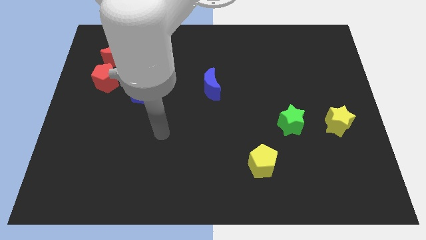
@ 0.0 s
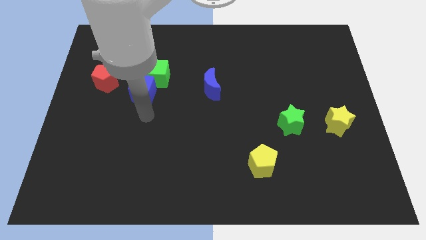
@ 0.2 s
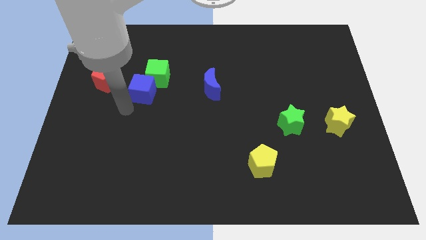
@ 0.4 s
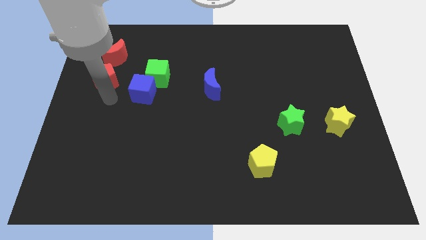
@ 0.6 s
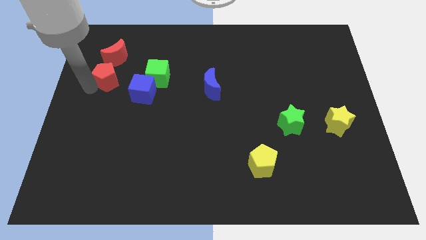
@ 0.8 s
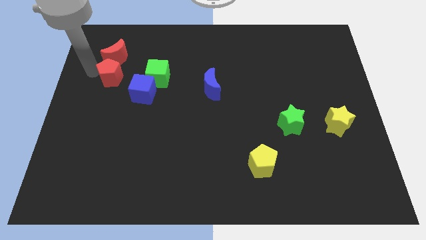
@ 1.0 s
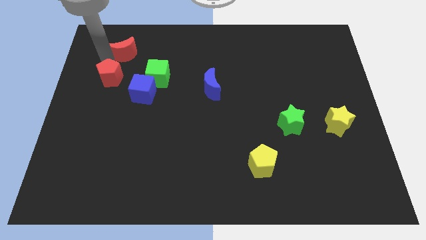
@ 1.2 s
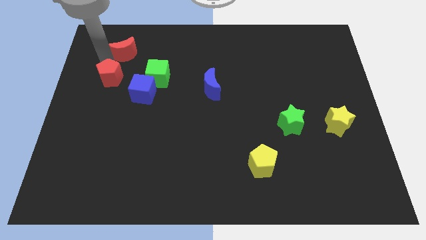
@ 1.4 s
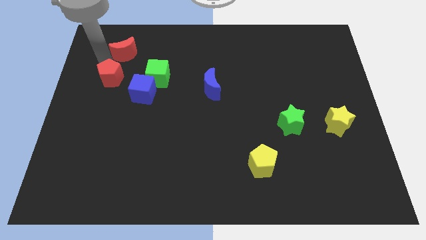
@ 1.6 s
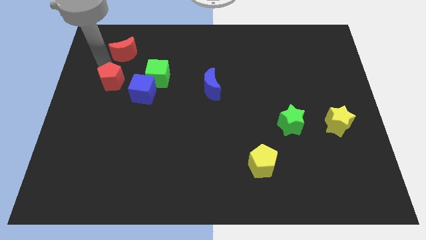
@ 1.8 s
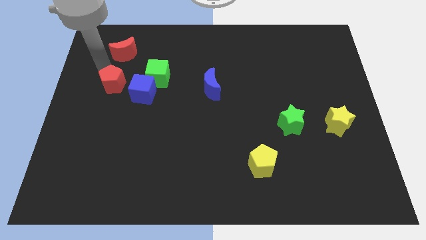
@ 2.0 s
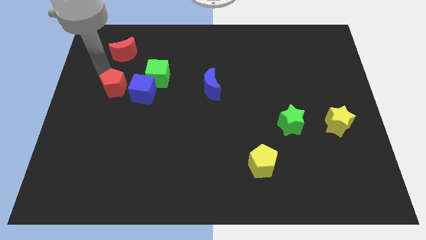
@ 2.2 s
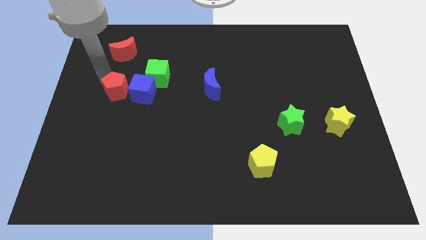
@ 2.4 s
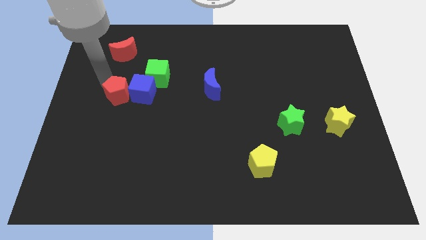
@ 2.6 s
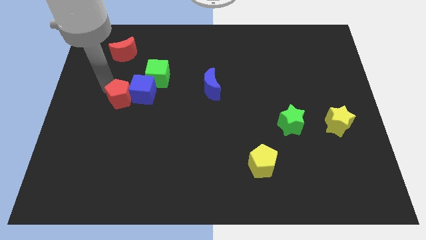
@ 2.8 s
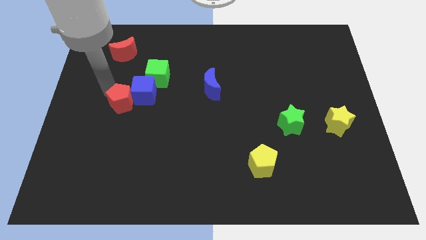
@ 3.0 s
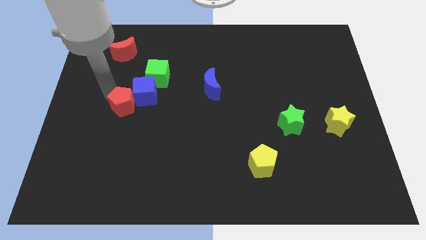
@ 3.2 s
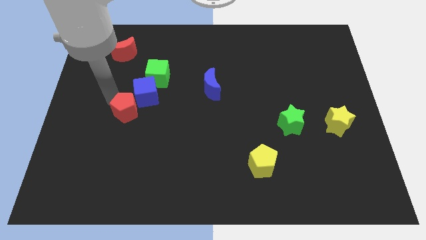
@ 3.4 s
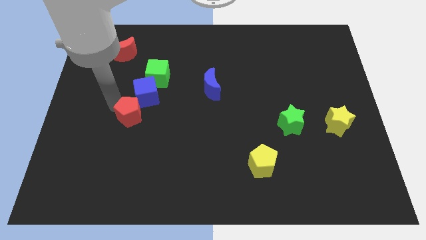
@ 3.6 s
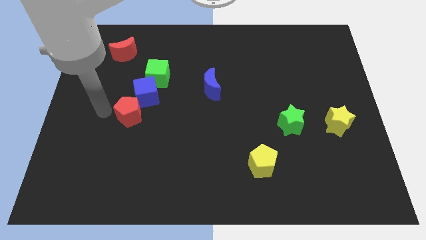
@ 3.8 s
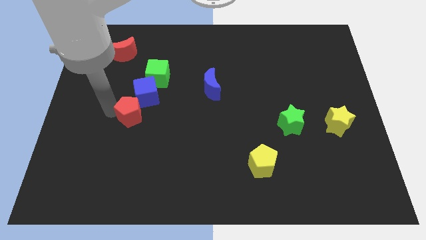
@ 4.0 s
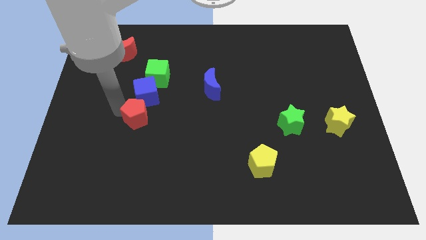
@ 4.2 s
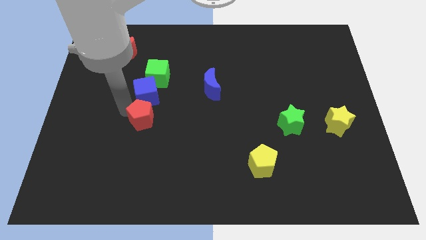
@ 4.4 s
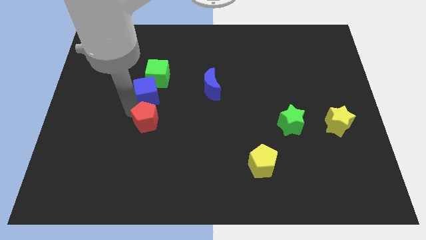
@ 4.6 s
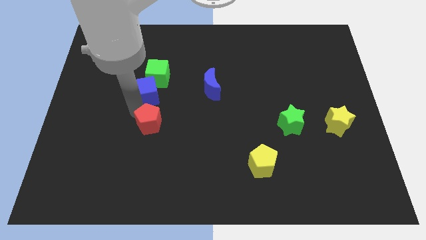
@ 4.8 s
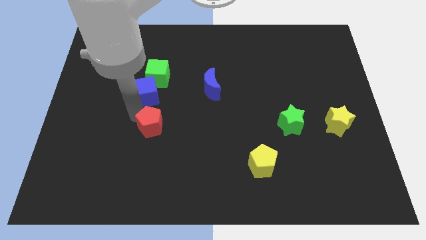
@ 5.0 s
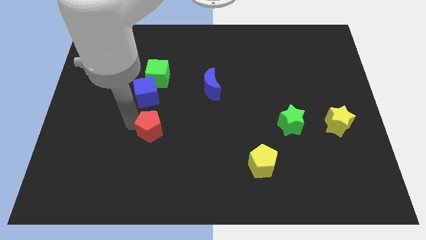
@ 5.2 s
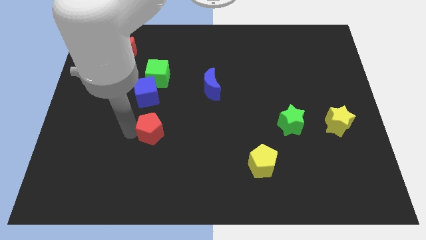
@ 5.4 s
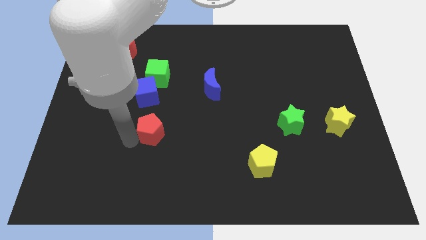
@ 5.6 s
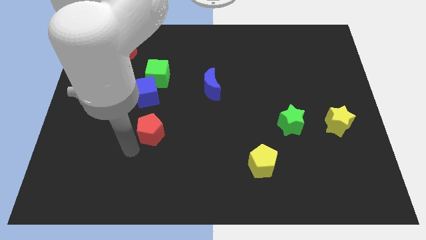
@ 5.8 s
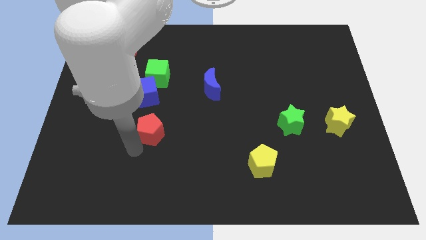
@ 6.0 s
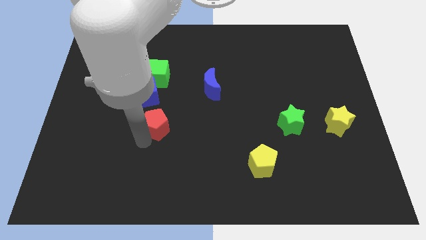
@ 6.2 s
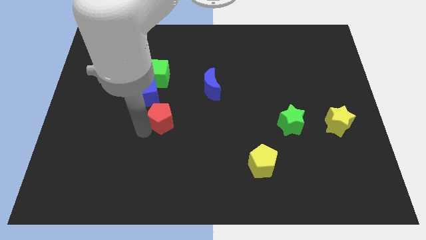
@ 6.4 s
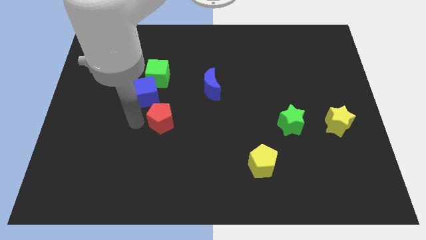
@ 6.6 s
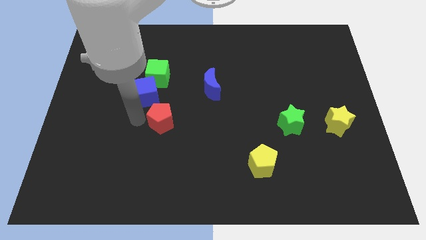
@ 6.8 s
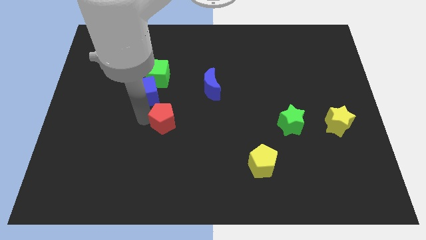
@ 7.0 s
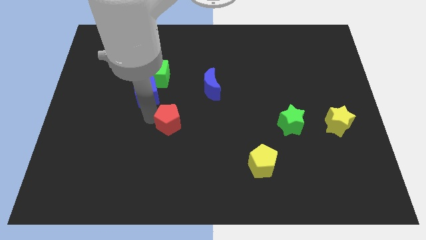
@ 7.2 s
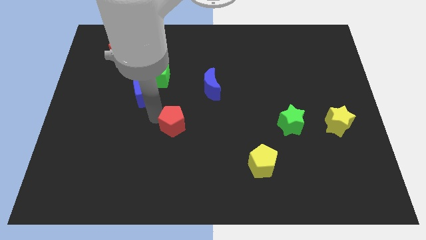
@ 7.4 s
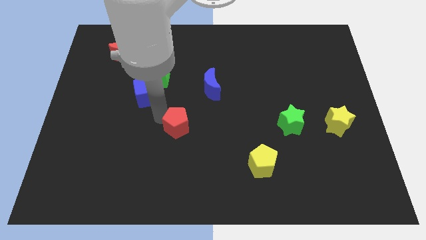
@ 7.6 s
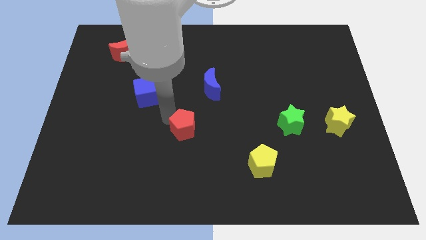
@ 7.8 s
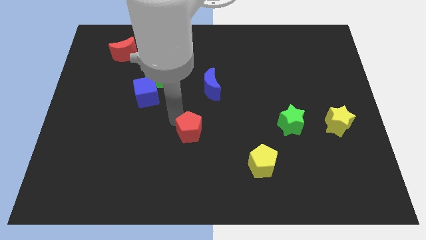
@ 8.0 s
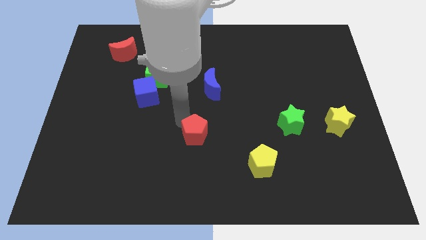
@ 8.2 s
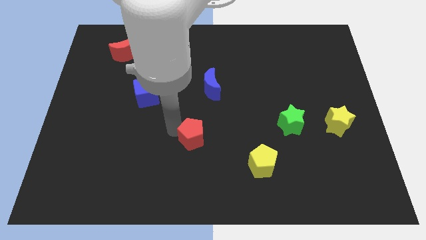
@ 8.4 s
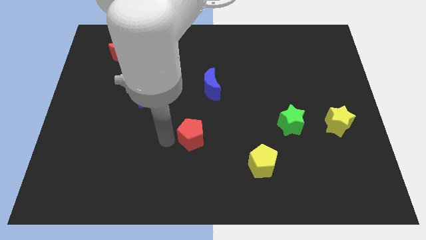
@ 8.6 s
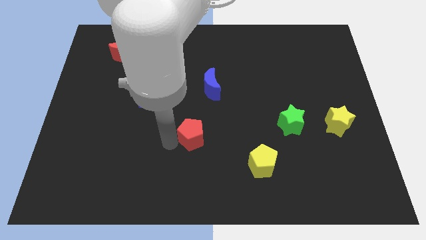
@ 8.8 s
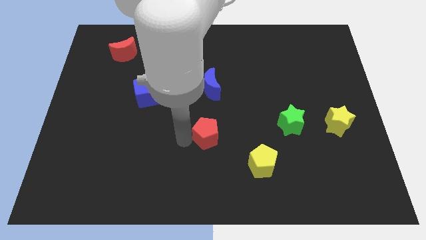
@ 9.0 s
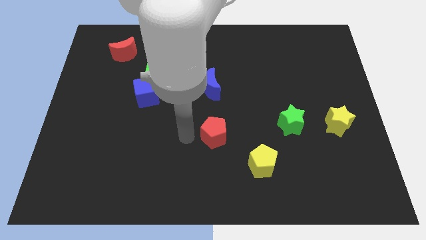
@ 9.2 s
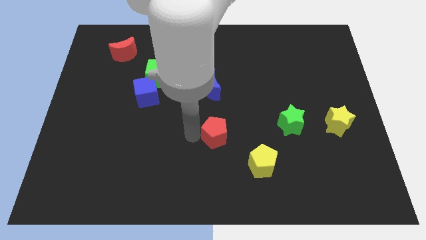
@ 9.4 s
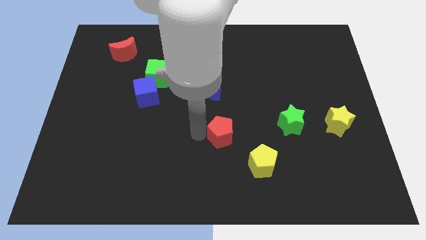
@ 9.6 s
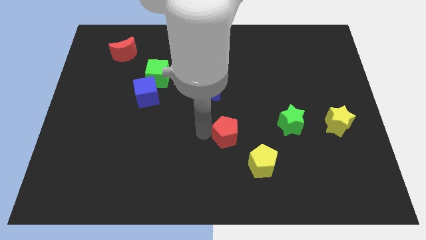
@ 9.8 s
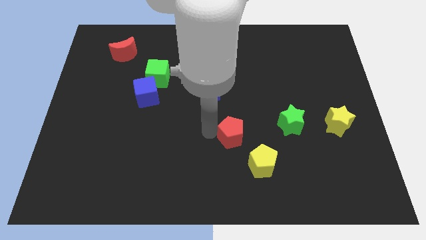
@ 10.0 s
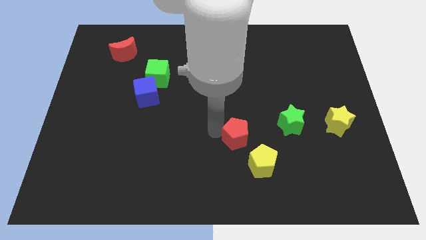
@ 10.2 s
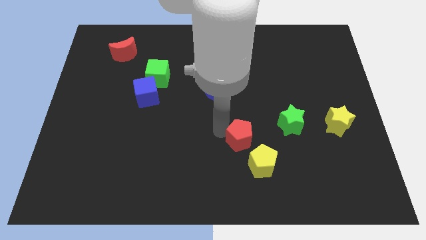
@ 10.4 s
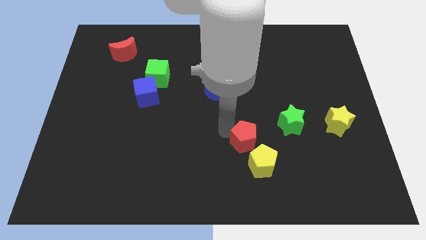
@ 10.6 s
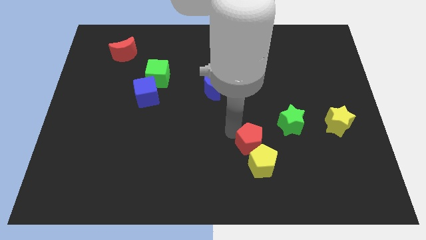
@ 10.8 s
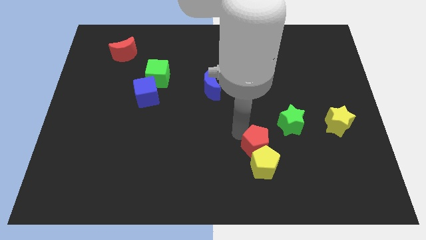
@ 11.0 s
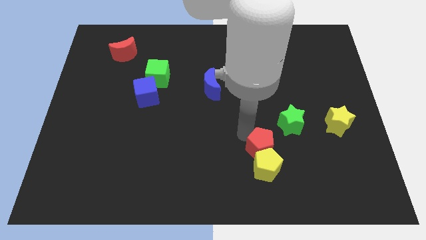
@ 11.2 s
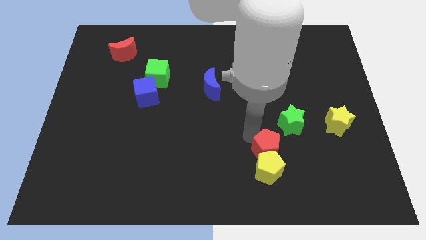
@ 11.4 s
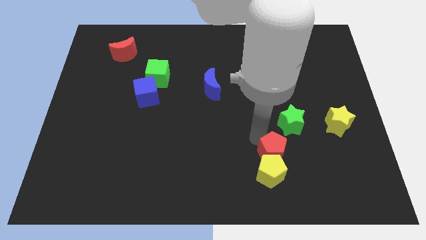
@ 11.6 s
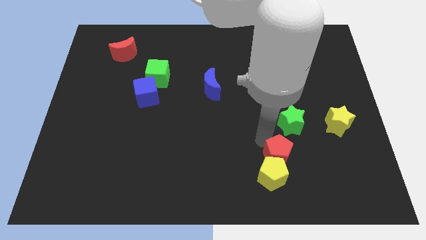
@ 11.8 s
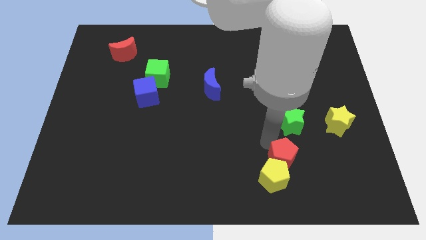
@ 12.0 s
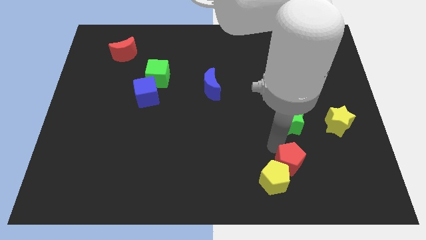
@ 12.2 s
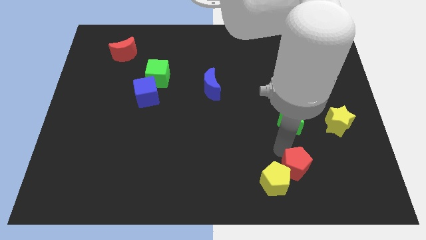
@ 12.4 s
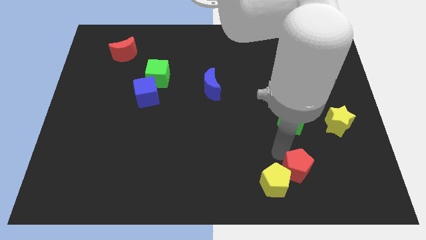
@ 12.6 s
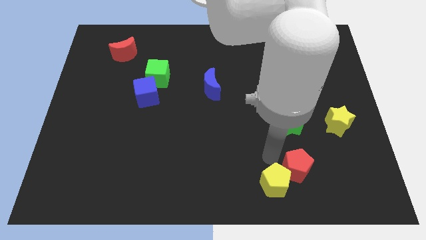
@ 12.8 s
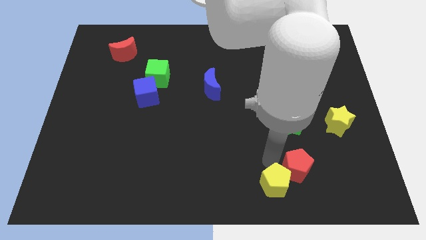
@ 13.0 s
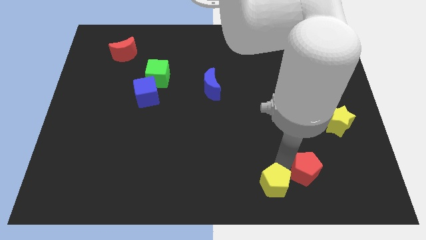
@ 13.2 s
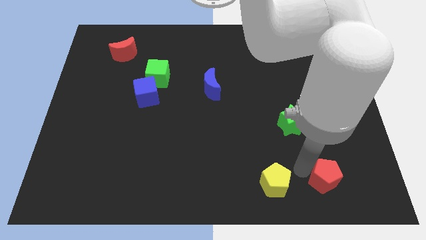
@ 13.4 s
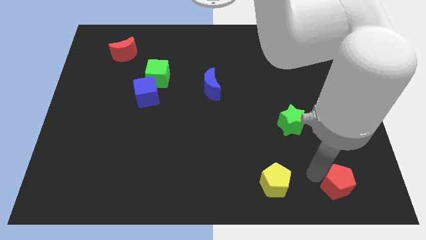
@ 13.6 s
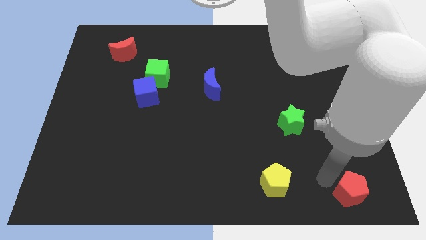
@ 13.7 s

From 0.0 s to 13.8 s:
slide the red pentagon to the bottom right corner

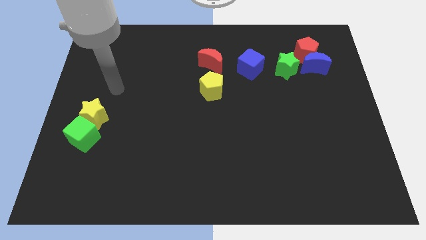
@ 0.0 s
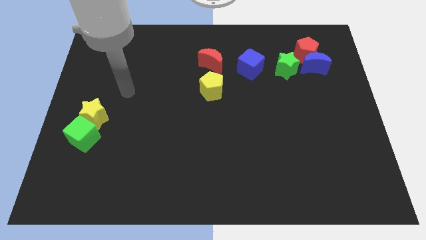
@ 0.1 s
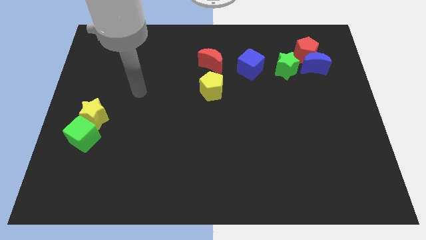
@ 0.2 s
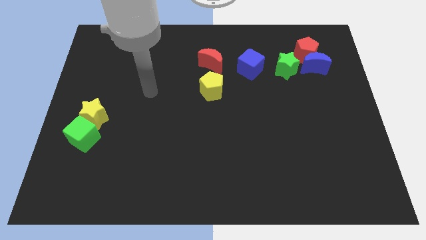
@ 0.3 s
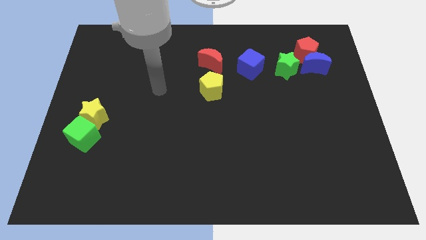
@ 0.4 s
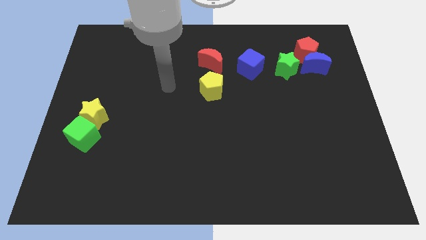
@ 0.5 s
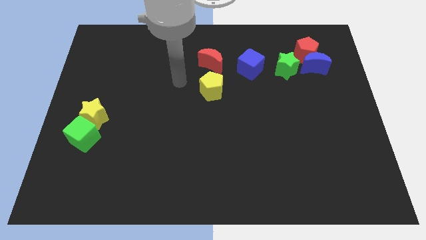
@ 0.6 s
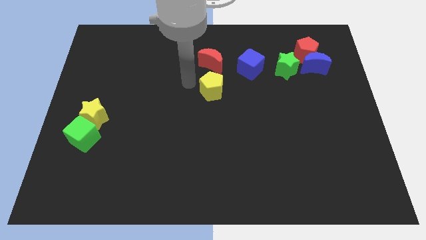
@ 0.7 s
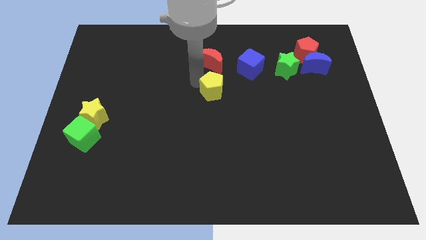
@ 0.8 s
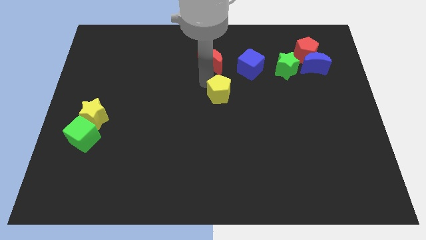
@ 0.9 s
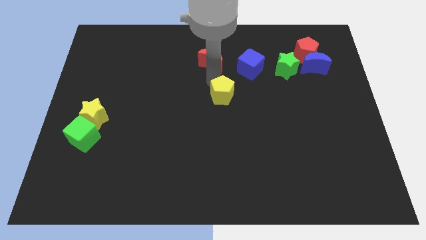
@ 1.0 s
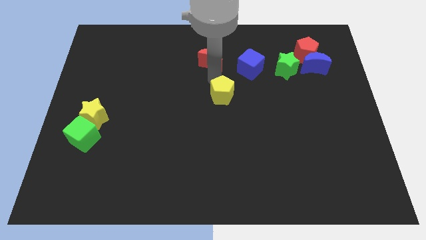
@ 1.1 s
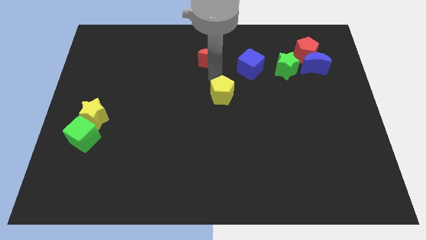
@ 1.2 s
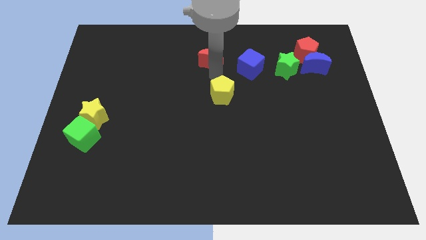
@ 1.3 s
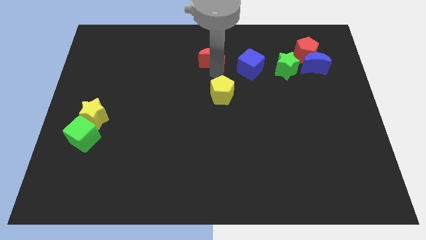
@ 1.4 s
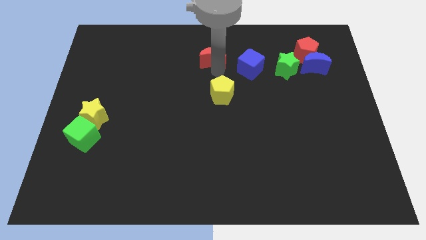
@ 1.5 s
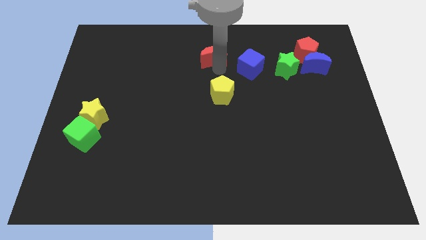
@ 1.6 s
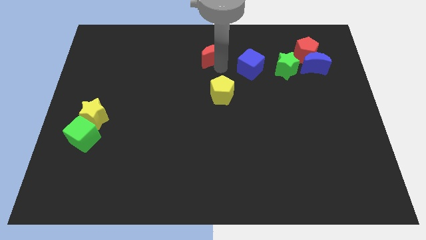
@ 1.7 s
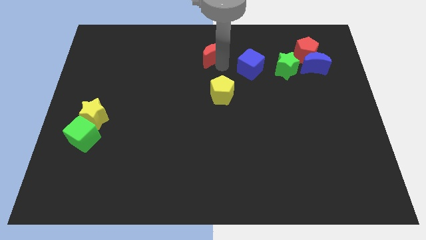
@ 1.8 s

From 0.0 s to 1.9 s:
put the red moon to the towards your base
